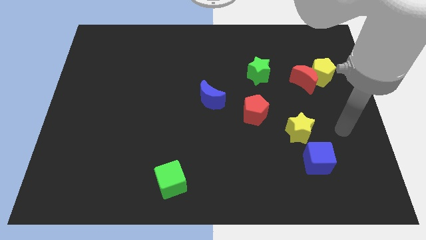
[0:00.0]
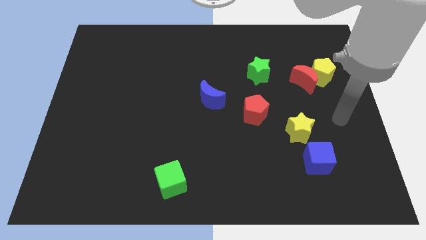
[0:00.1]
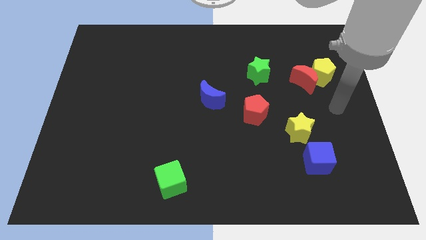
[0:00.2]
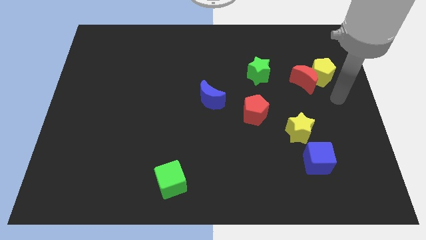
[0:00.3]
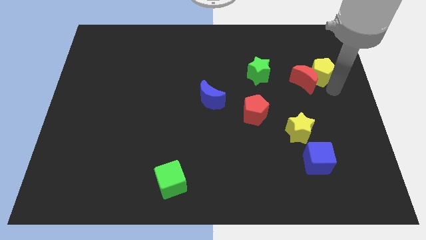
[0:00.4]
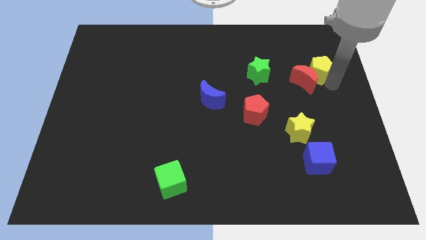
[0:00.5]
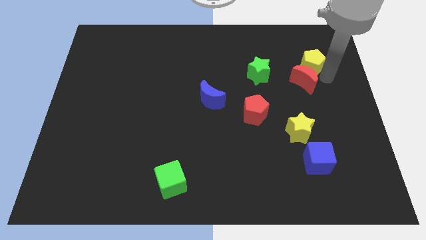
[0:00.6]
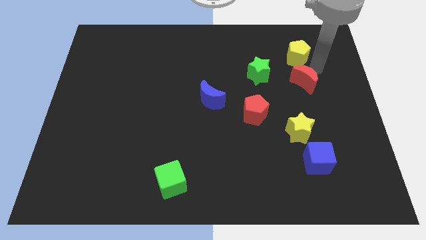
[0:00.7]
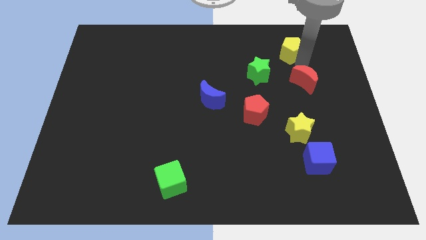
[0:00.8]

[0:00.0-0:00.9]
move the red moon away from the yellow pentagon

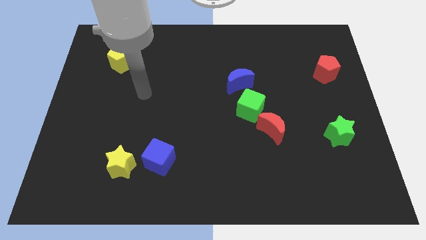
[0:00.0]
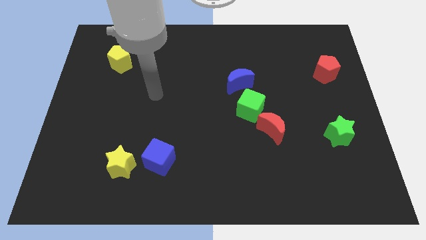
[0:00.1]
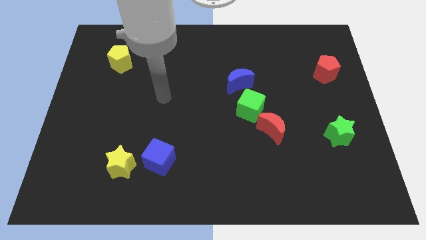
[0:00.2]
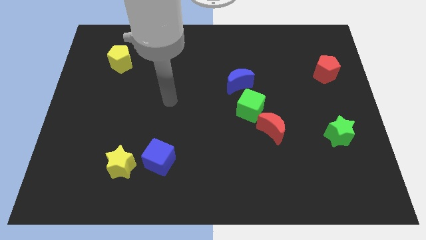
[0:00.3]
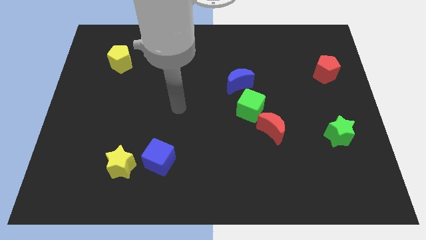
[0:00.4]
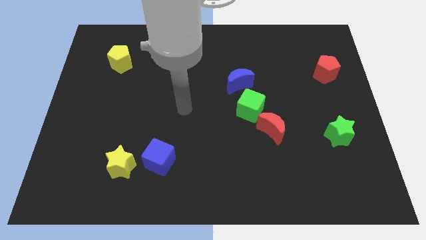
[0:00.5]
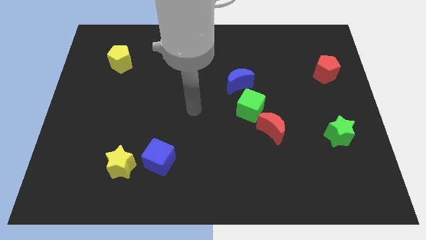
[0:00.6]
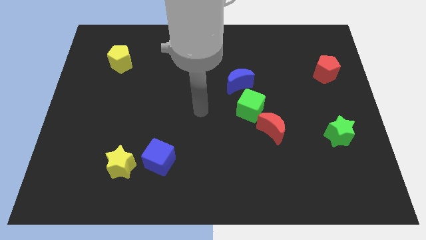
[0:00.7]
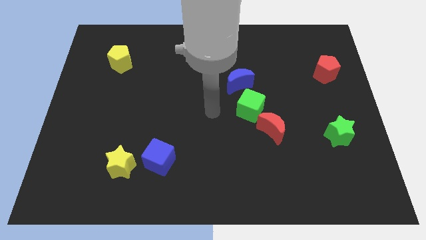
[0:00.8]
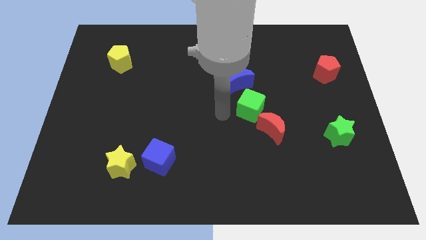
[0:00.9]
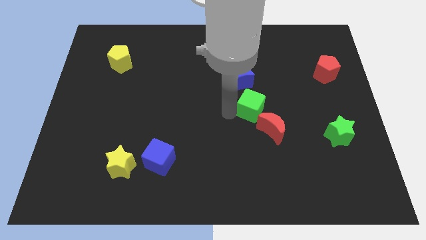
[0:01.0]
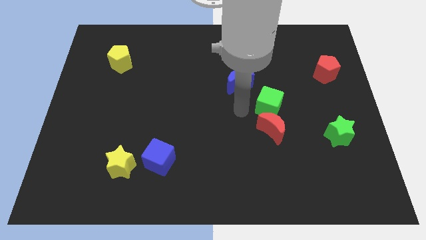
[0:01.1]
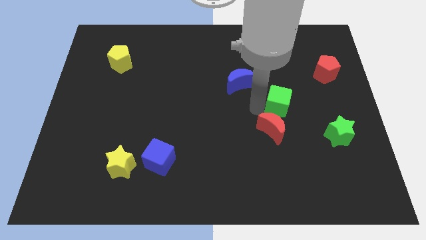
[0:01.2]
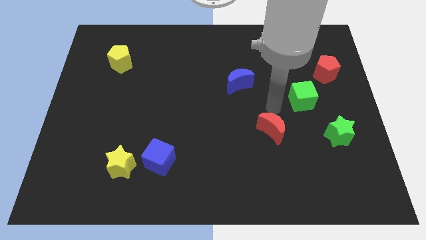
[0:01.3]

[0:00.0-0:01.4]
separate the red moon from the green cube

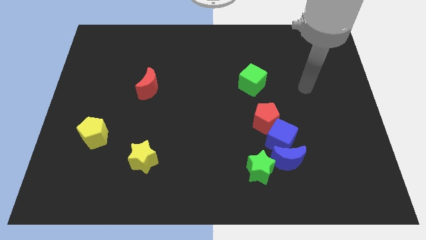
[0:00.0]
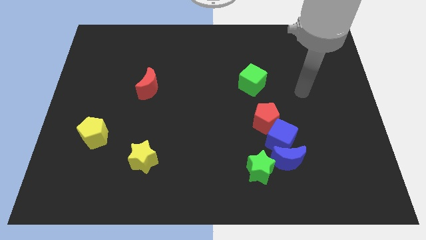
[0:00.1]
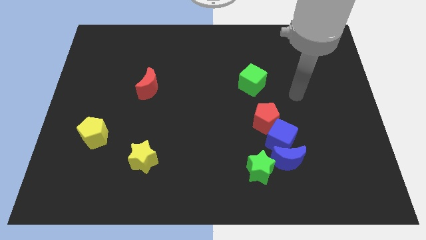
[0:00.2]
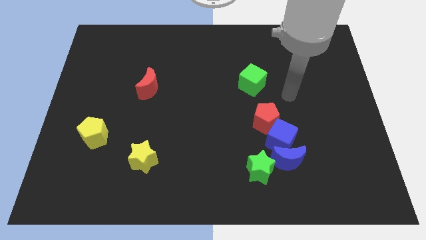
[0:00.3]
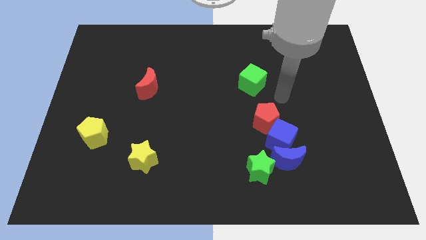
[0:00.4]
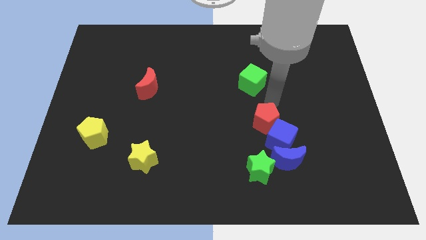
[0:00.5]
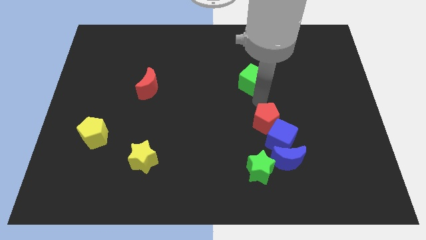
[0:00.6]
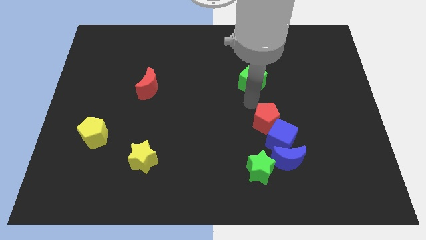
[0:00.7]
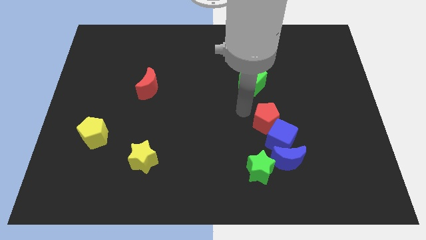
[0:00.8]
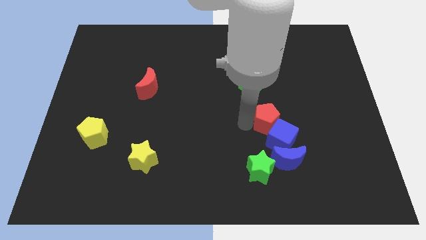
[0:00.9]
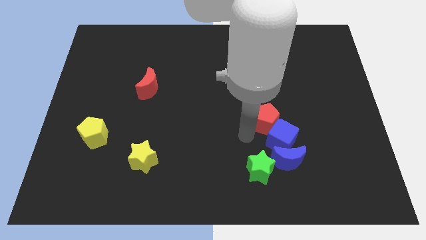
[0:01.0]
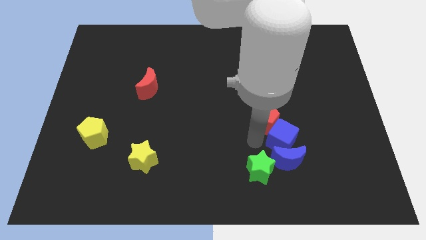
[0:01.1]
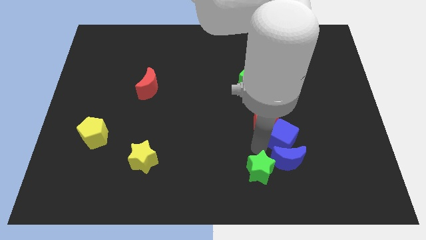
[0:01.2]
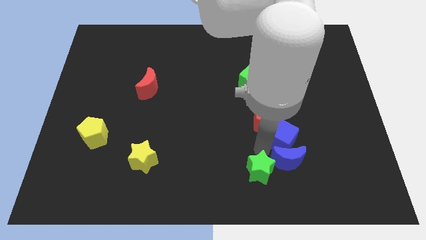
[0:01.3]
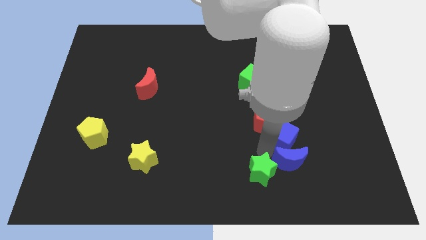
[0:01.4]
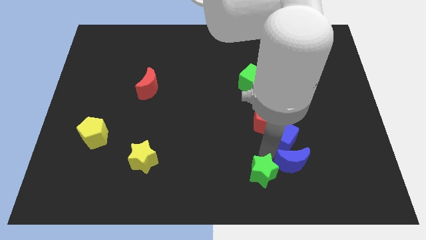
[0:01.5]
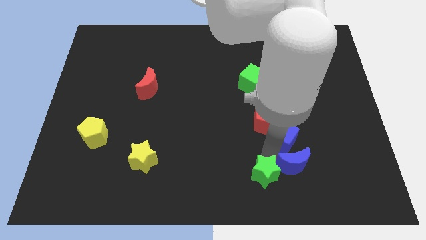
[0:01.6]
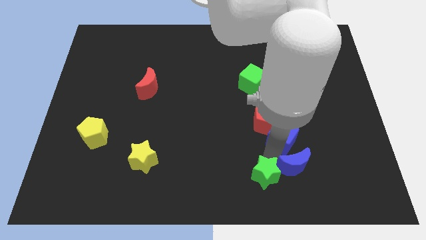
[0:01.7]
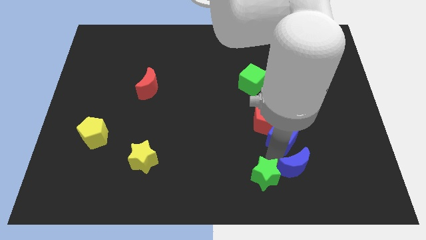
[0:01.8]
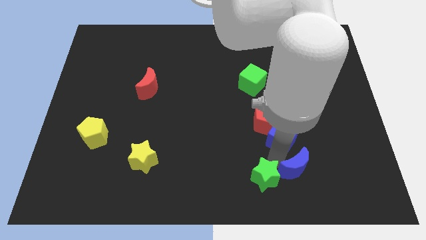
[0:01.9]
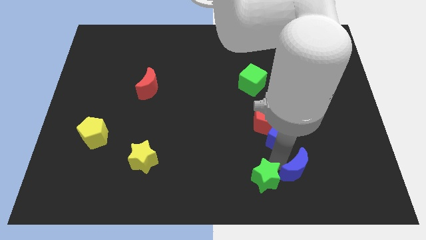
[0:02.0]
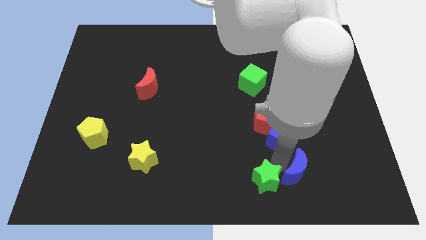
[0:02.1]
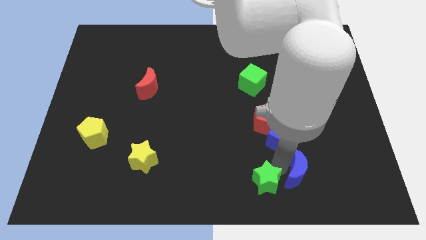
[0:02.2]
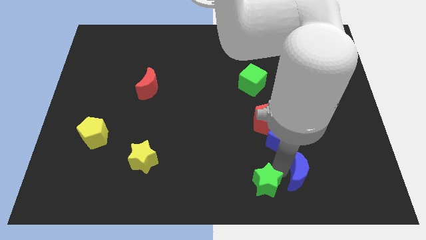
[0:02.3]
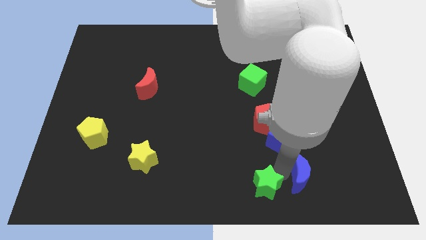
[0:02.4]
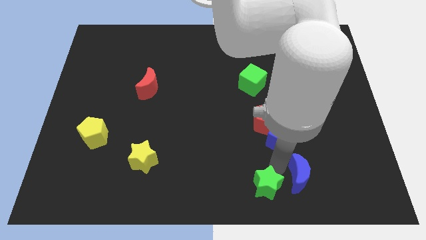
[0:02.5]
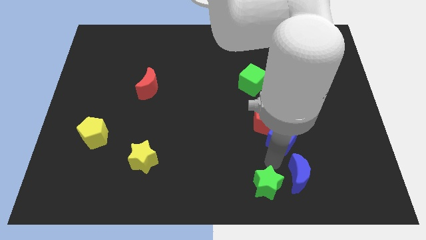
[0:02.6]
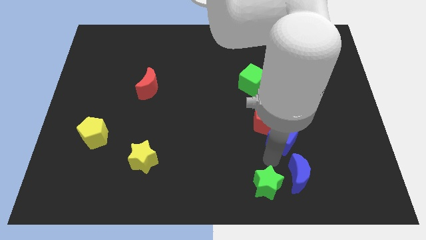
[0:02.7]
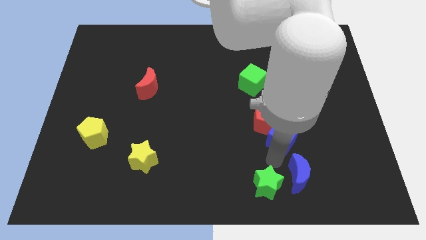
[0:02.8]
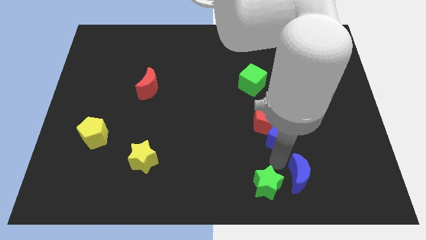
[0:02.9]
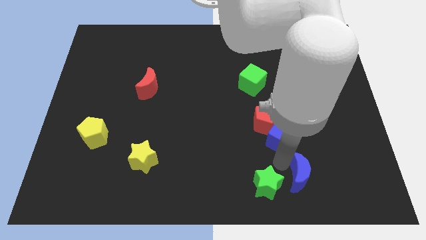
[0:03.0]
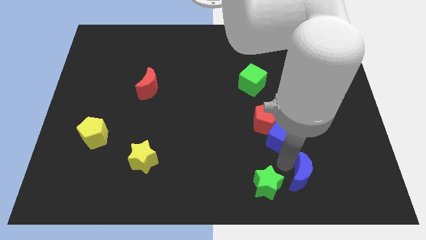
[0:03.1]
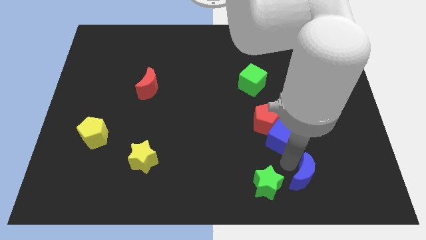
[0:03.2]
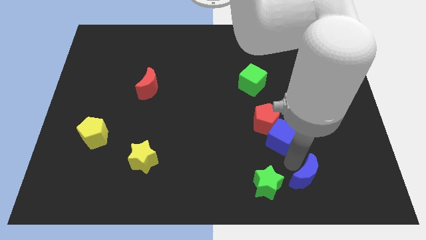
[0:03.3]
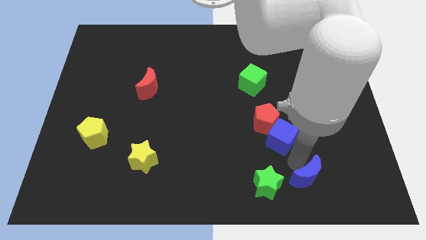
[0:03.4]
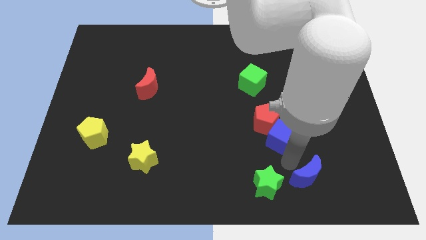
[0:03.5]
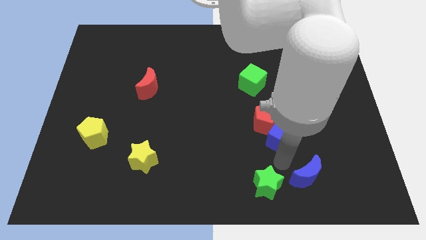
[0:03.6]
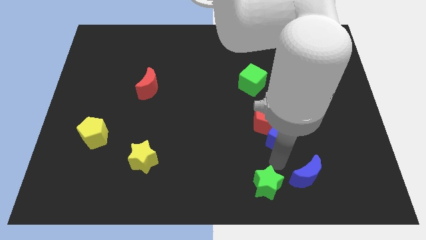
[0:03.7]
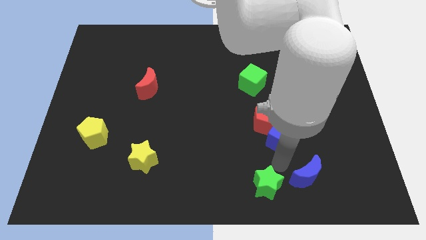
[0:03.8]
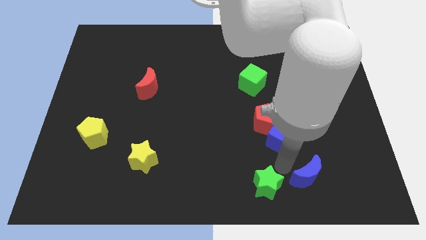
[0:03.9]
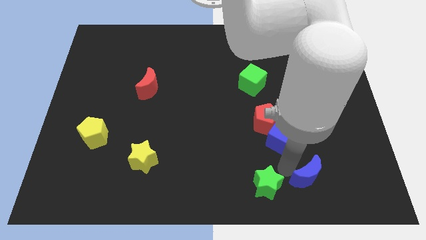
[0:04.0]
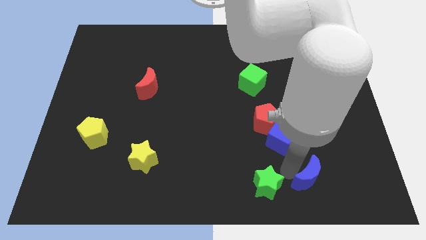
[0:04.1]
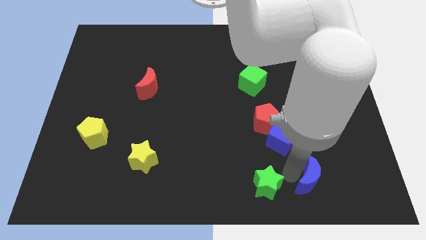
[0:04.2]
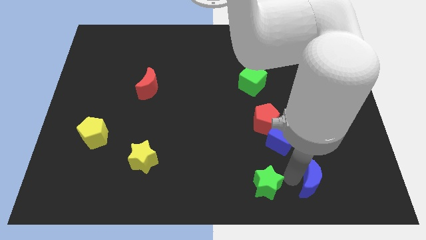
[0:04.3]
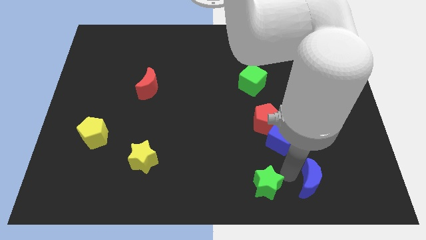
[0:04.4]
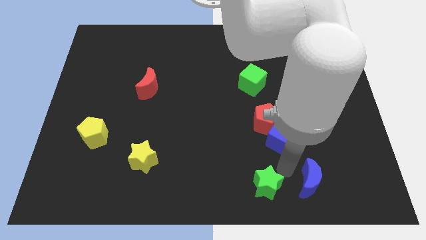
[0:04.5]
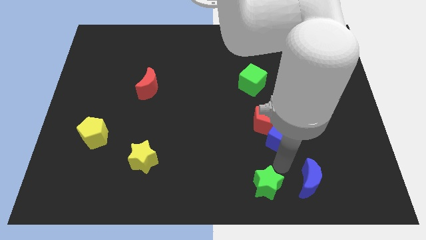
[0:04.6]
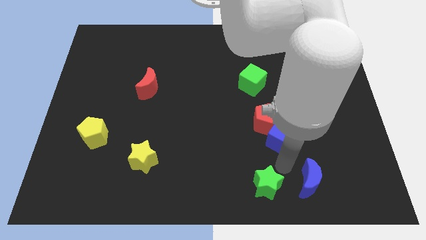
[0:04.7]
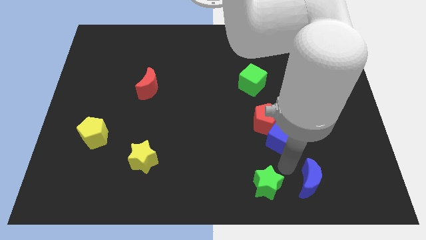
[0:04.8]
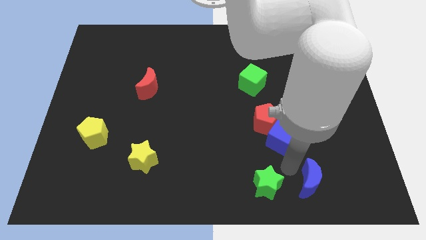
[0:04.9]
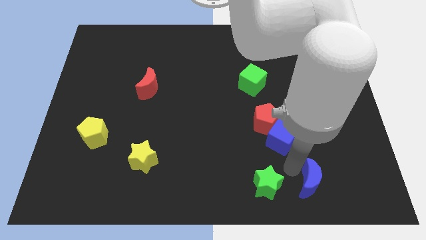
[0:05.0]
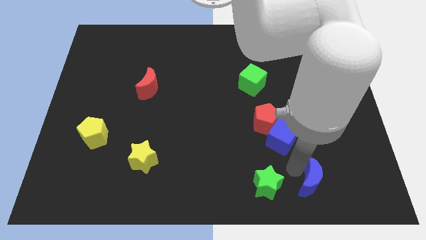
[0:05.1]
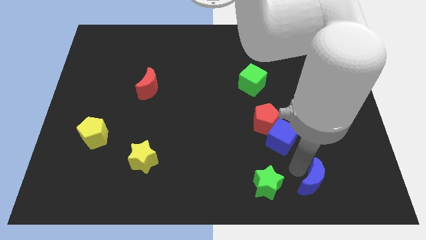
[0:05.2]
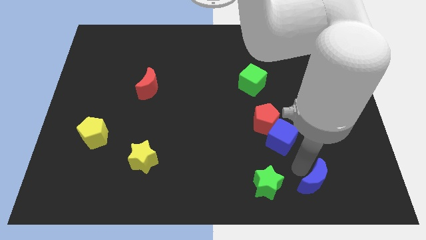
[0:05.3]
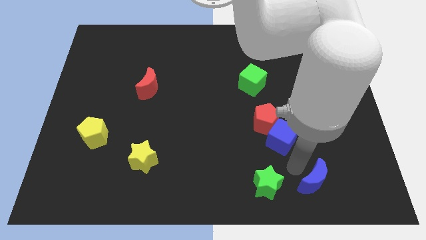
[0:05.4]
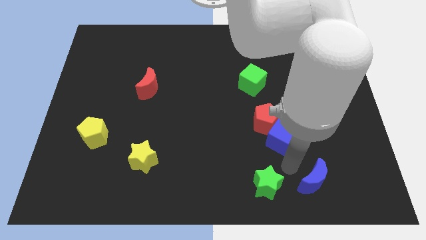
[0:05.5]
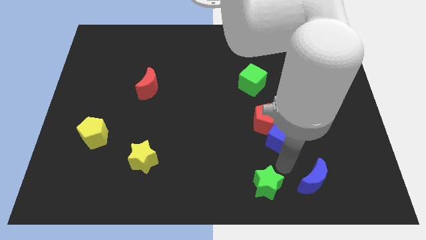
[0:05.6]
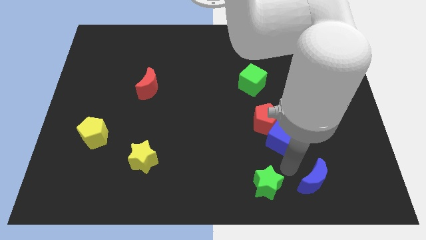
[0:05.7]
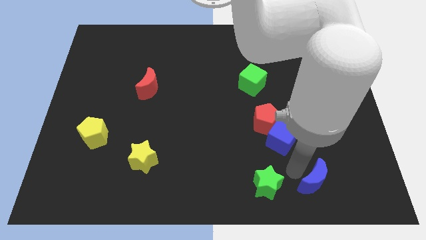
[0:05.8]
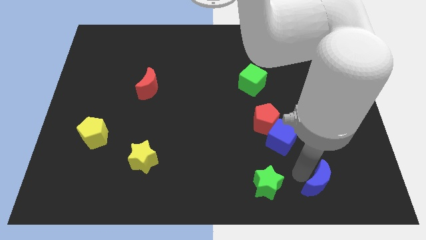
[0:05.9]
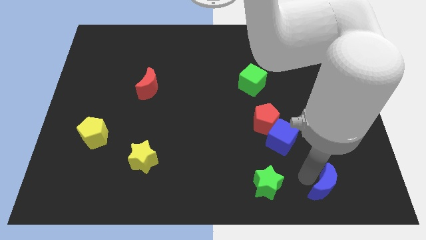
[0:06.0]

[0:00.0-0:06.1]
pull the blue moon apart from the blue cube and green star

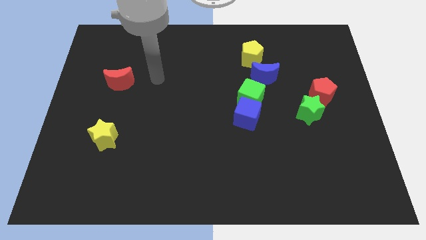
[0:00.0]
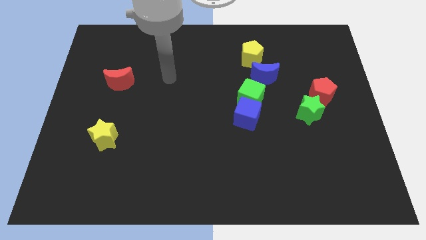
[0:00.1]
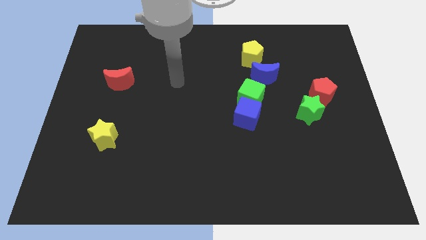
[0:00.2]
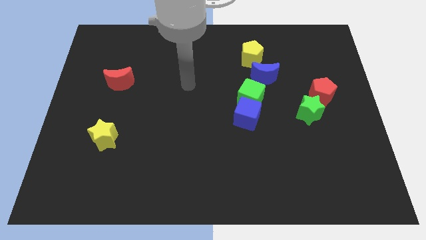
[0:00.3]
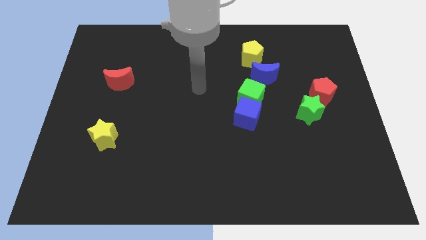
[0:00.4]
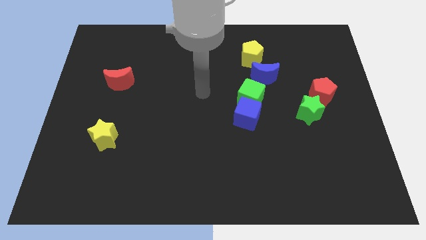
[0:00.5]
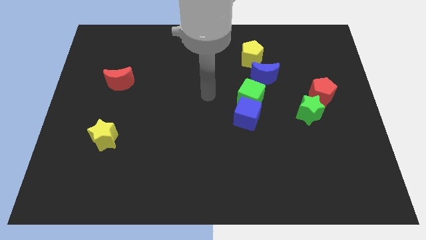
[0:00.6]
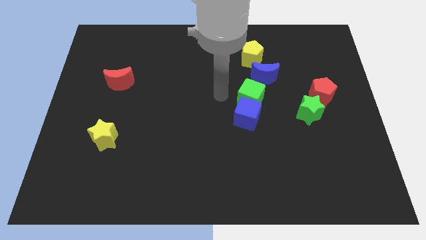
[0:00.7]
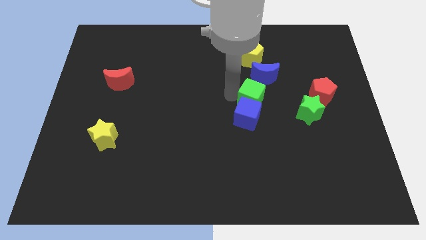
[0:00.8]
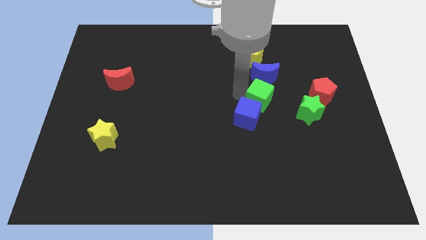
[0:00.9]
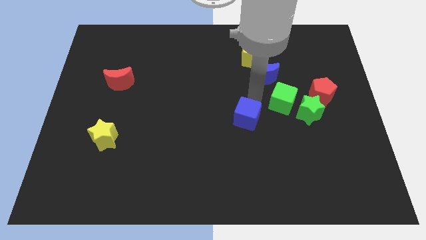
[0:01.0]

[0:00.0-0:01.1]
move the blue cube away from the green cube
